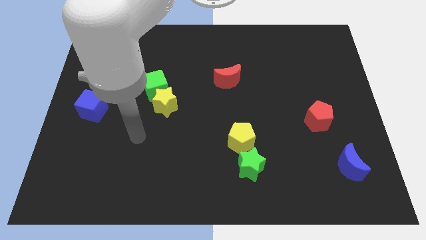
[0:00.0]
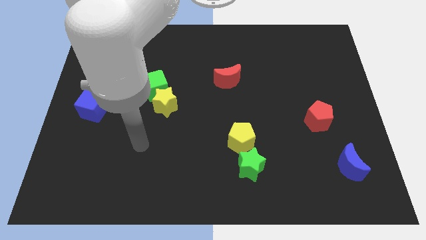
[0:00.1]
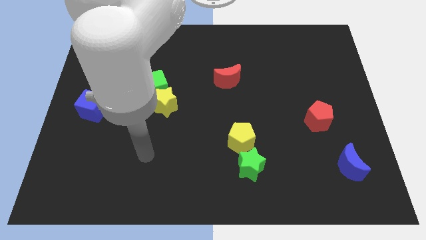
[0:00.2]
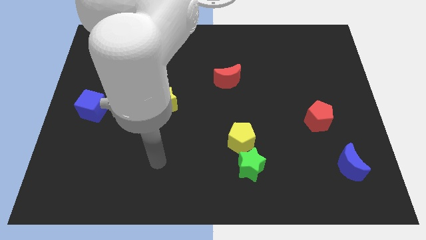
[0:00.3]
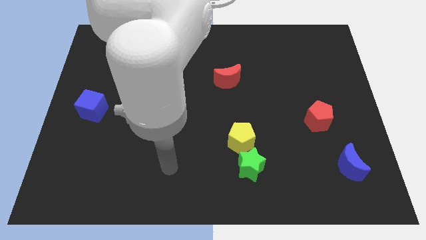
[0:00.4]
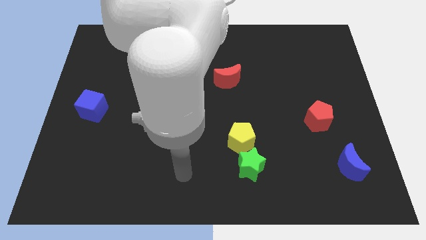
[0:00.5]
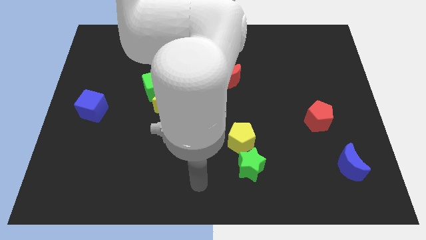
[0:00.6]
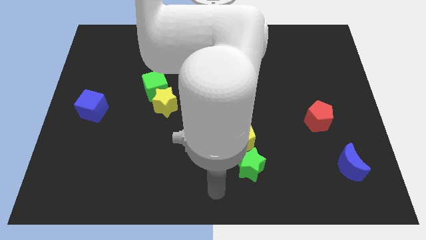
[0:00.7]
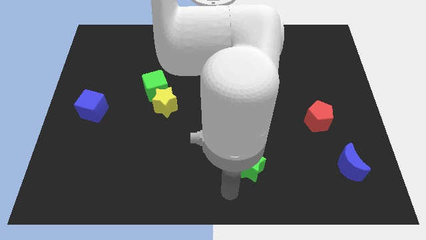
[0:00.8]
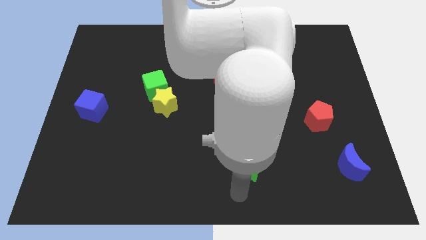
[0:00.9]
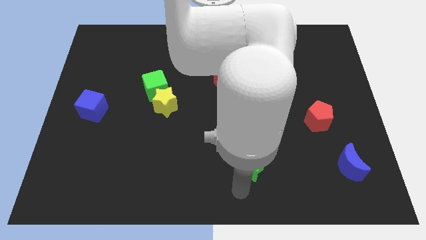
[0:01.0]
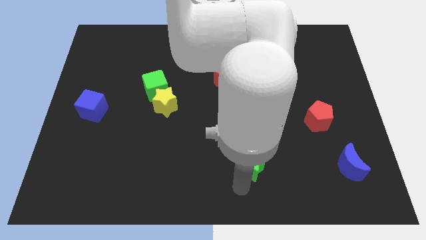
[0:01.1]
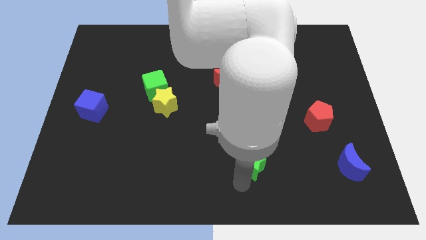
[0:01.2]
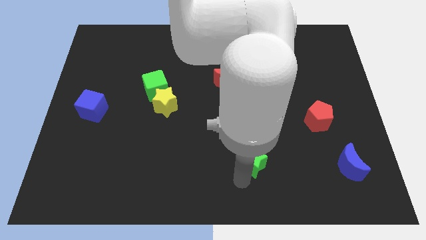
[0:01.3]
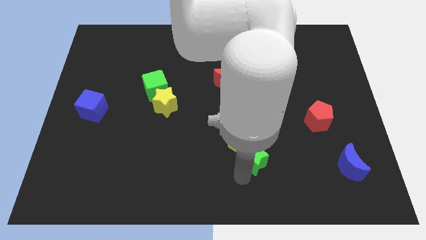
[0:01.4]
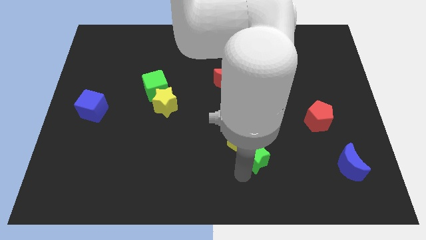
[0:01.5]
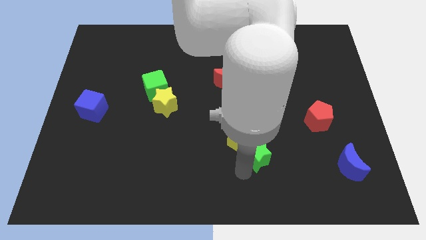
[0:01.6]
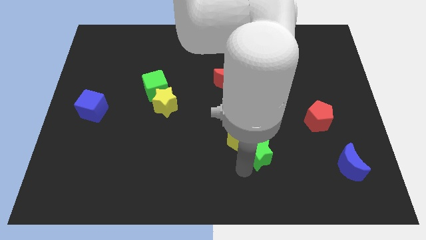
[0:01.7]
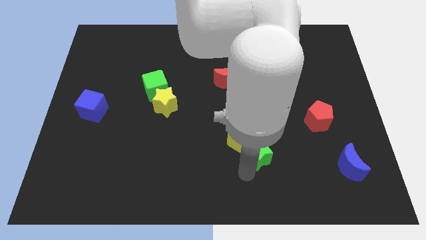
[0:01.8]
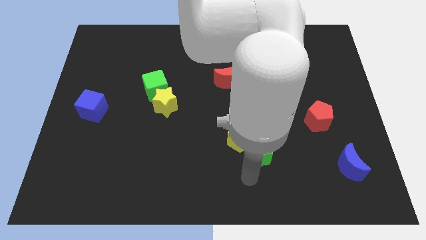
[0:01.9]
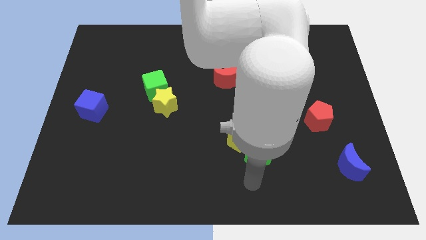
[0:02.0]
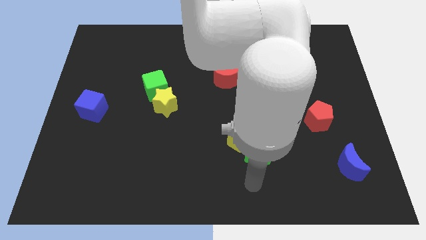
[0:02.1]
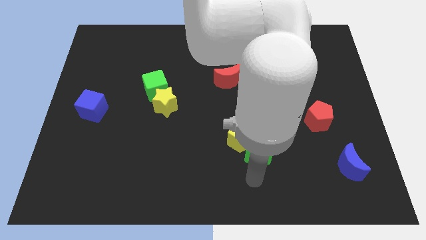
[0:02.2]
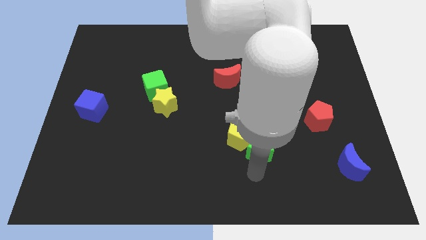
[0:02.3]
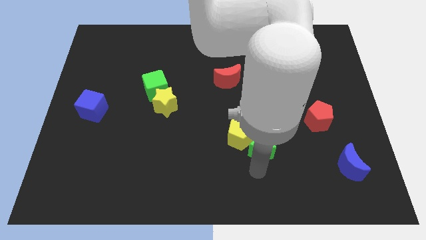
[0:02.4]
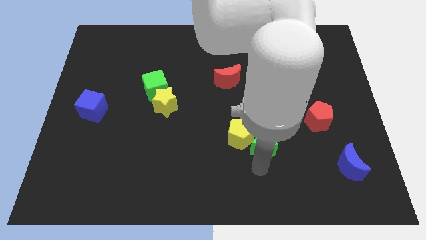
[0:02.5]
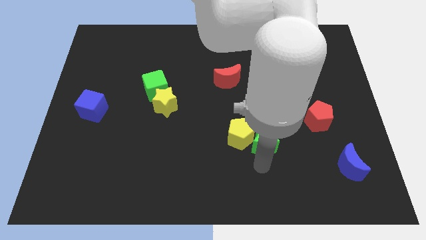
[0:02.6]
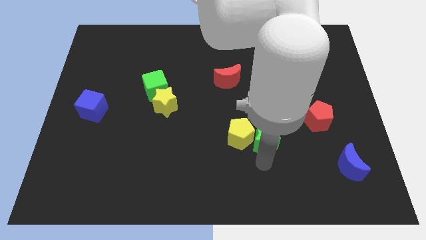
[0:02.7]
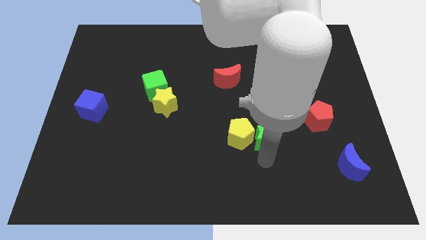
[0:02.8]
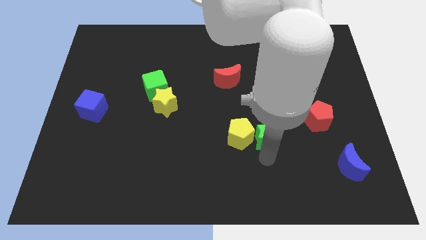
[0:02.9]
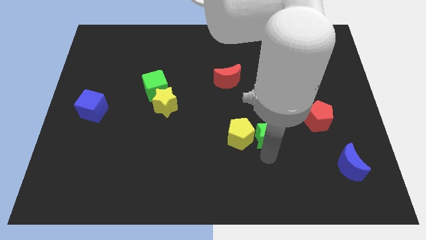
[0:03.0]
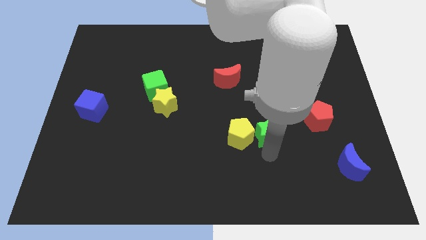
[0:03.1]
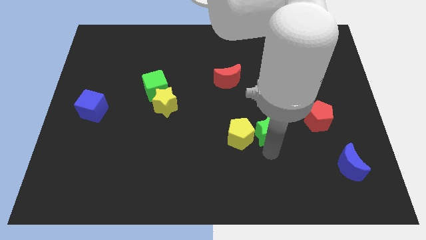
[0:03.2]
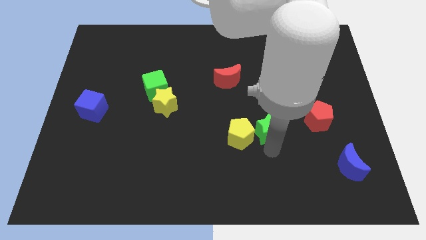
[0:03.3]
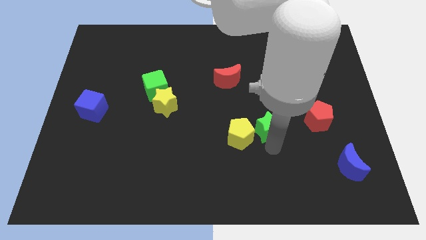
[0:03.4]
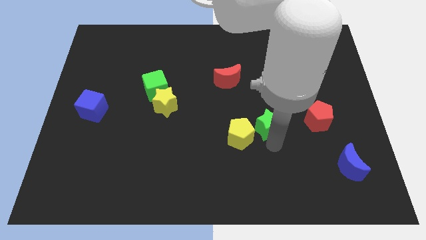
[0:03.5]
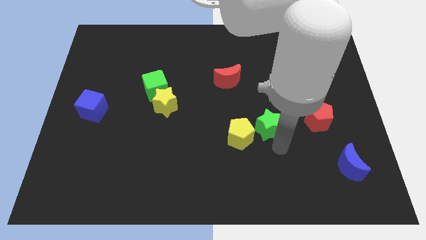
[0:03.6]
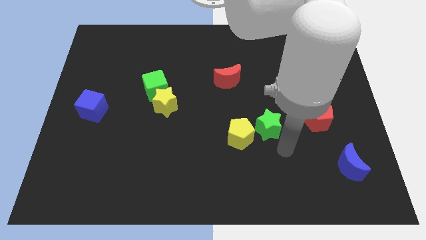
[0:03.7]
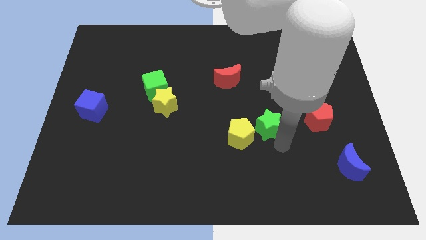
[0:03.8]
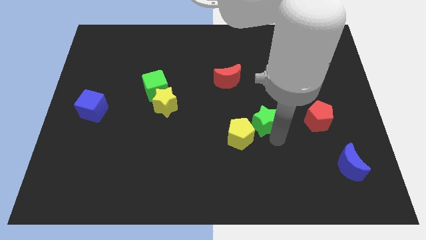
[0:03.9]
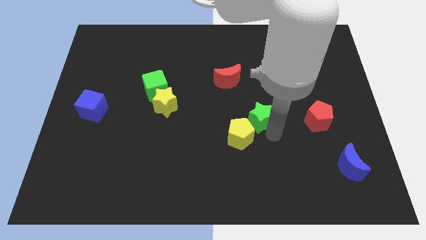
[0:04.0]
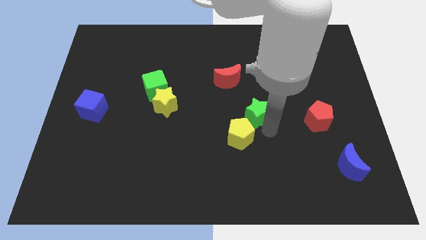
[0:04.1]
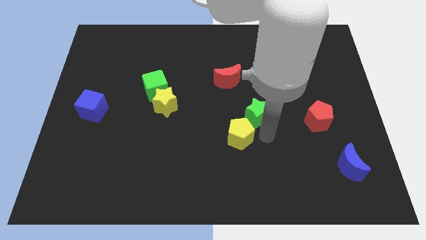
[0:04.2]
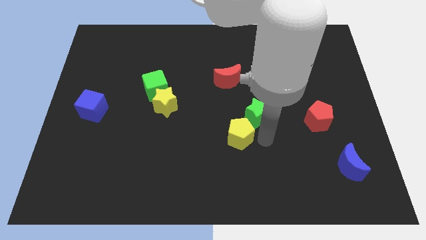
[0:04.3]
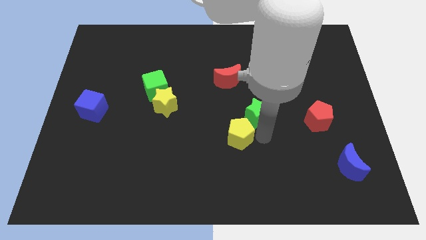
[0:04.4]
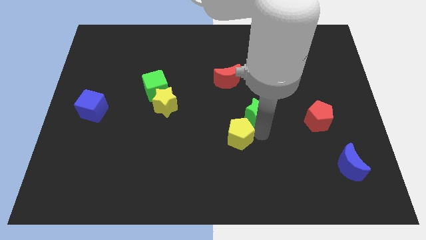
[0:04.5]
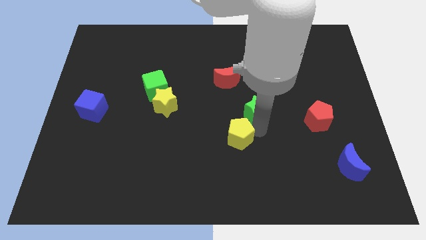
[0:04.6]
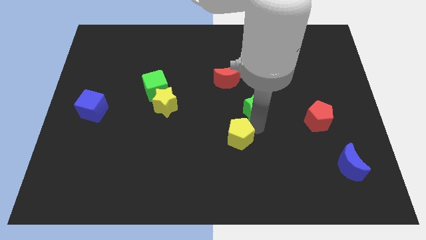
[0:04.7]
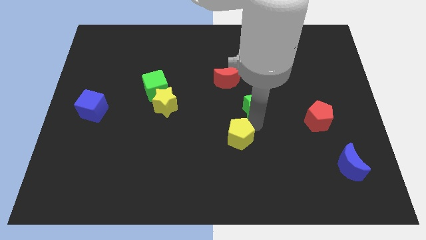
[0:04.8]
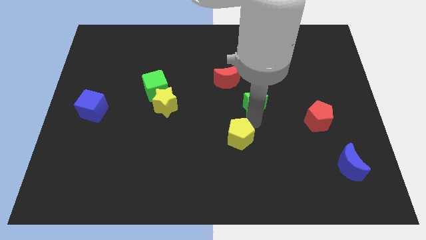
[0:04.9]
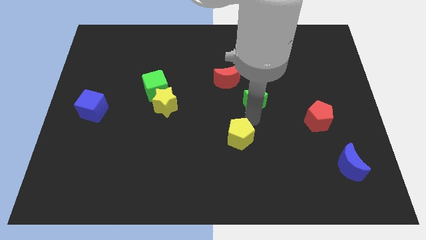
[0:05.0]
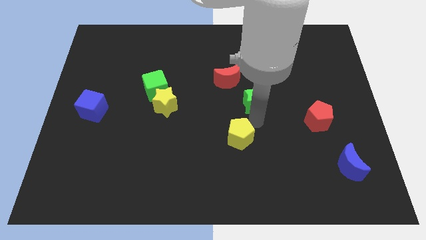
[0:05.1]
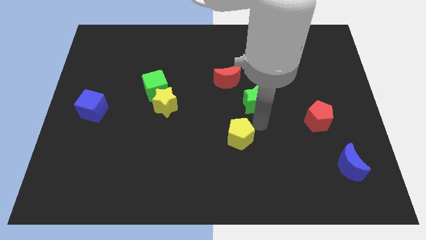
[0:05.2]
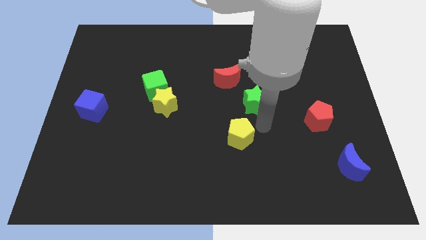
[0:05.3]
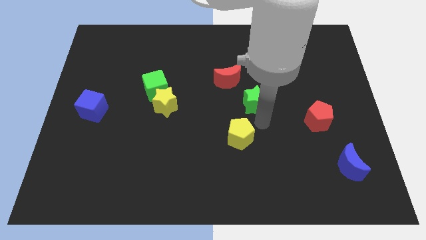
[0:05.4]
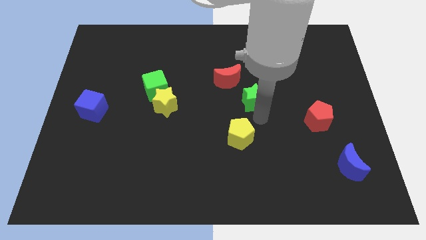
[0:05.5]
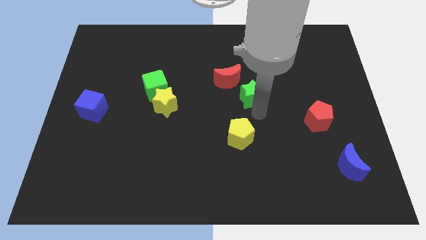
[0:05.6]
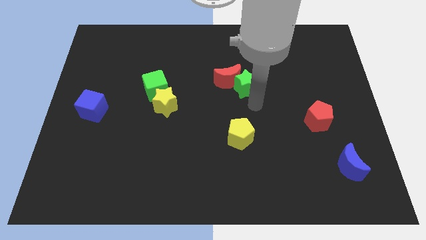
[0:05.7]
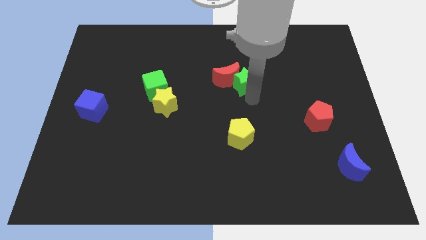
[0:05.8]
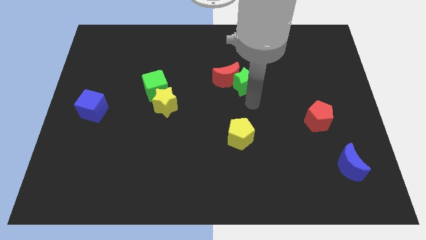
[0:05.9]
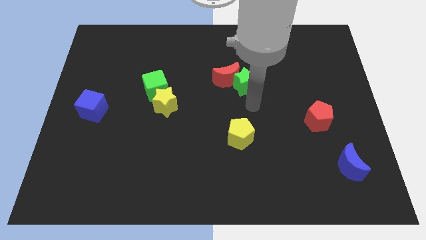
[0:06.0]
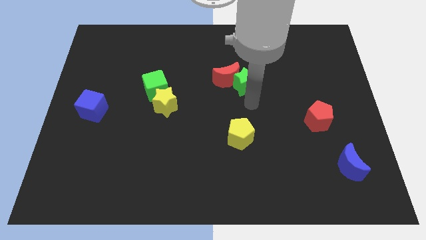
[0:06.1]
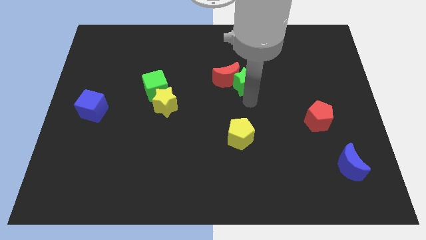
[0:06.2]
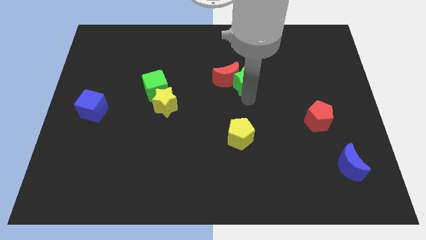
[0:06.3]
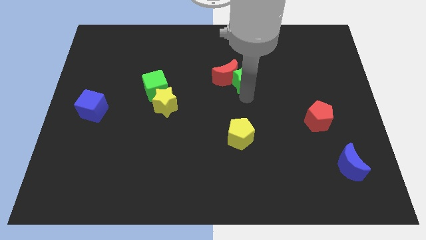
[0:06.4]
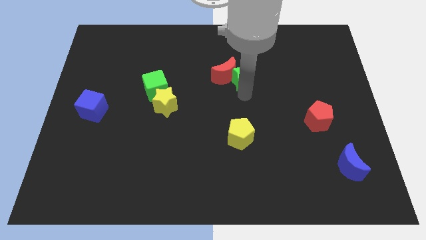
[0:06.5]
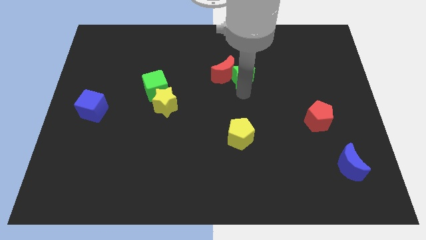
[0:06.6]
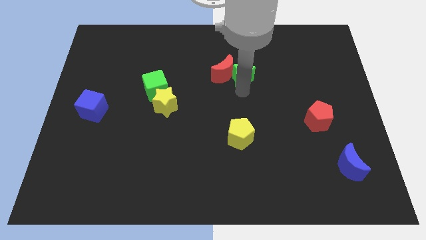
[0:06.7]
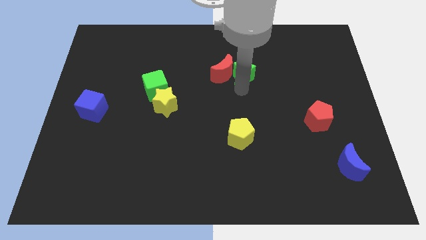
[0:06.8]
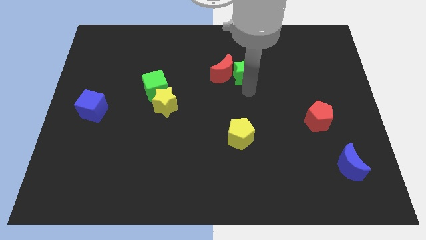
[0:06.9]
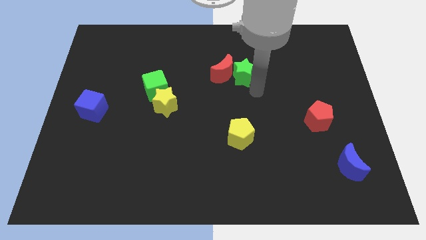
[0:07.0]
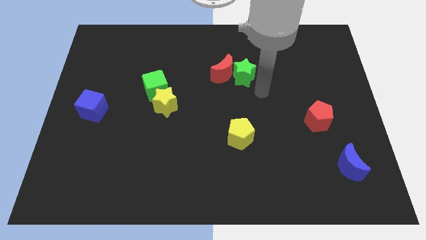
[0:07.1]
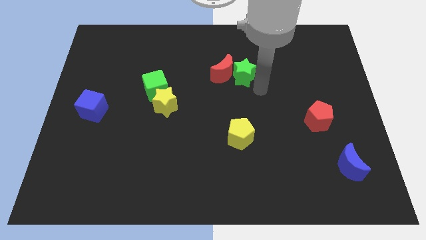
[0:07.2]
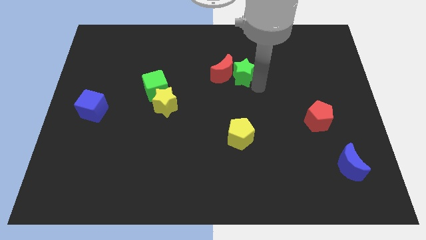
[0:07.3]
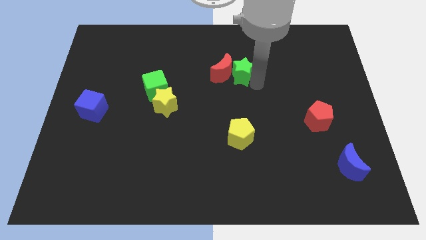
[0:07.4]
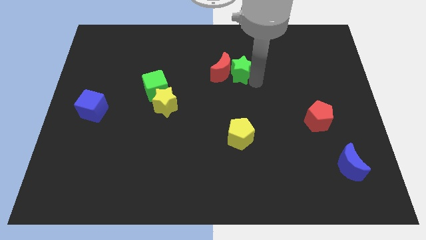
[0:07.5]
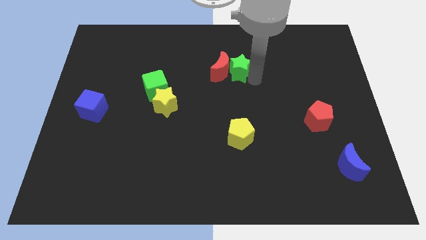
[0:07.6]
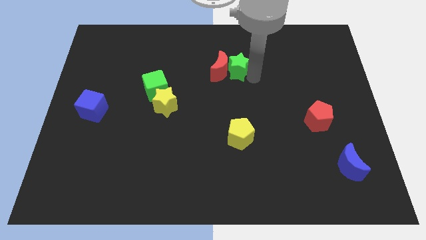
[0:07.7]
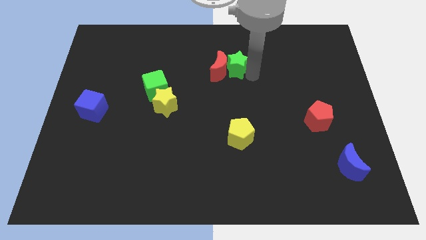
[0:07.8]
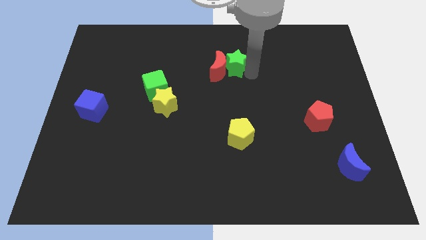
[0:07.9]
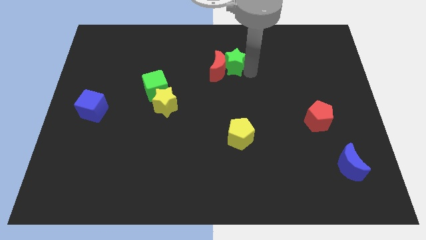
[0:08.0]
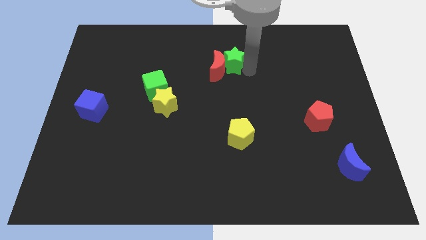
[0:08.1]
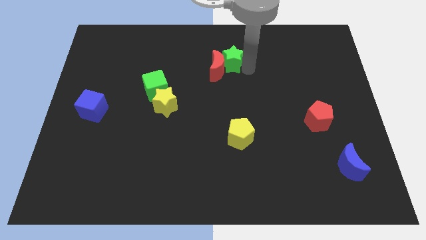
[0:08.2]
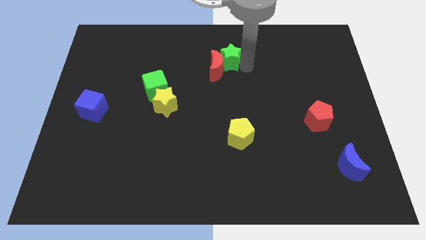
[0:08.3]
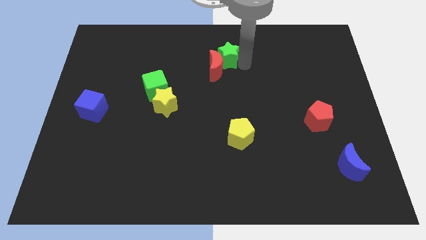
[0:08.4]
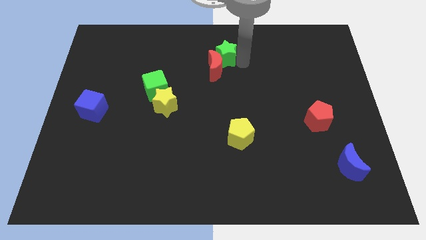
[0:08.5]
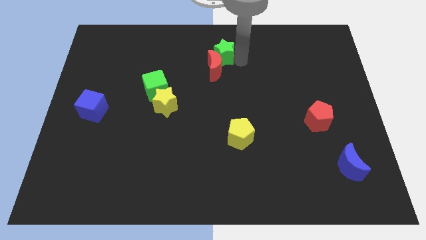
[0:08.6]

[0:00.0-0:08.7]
push the green star to the top side
